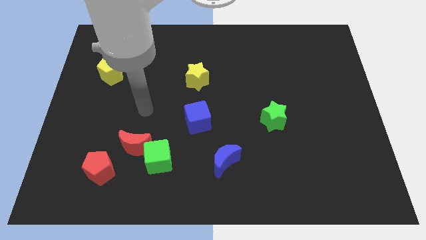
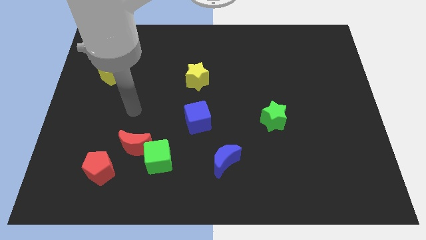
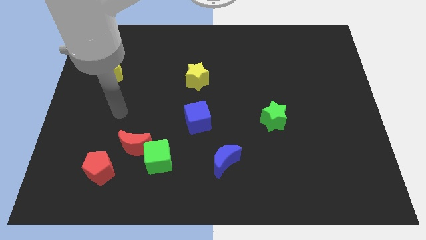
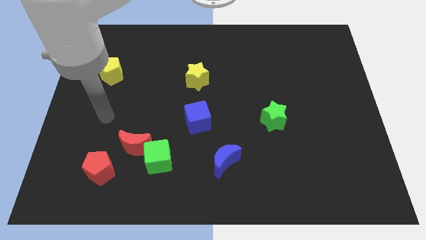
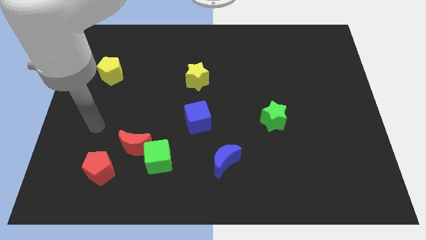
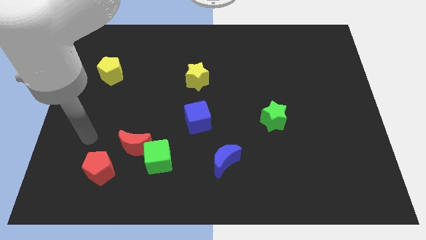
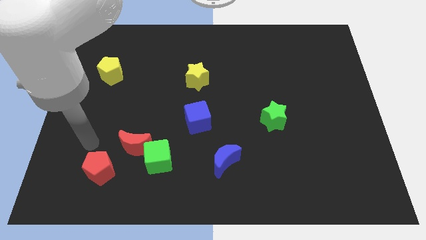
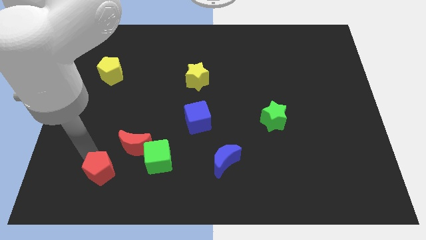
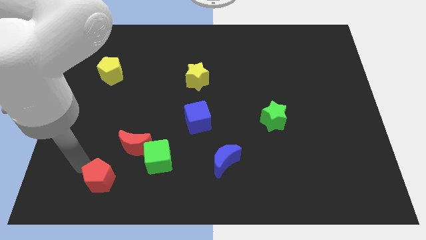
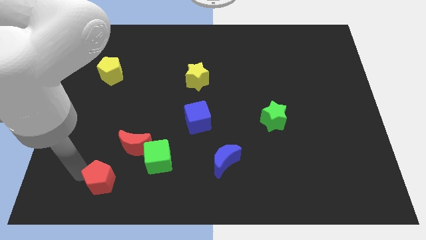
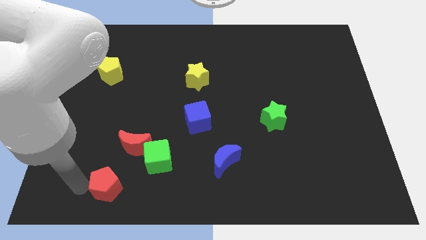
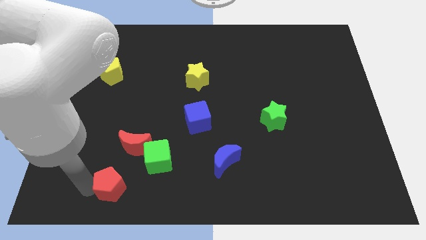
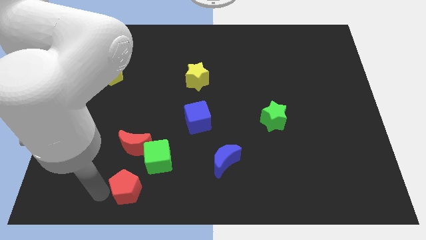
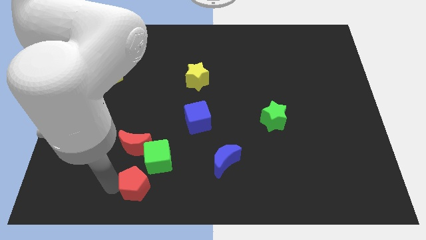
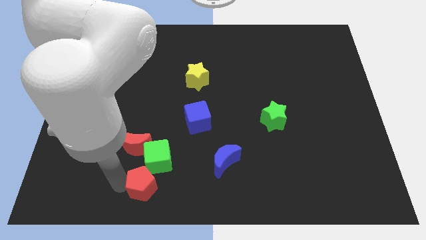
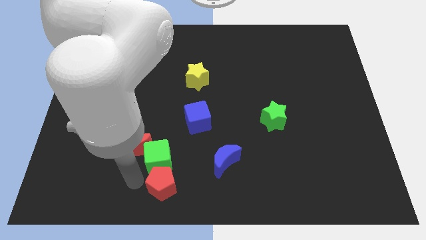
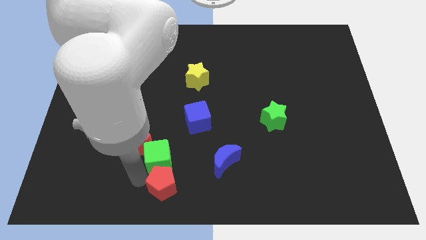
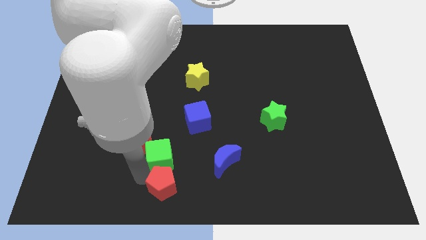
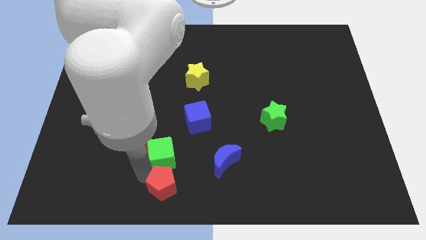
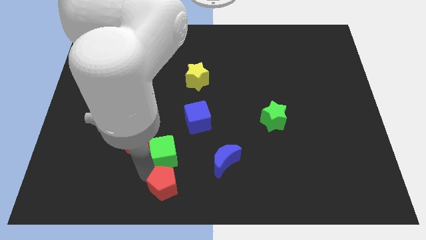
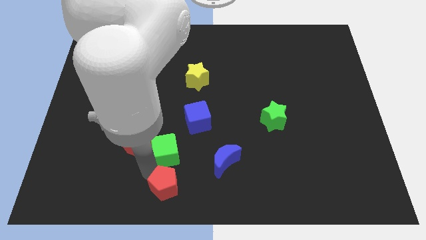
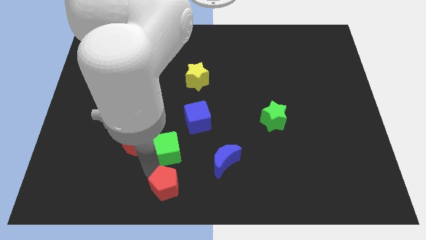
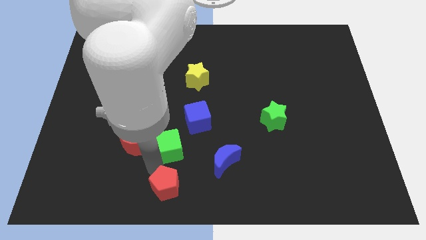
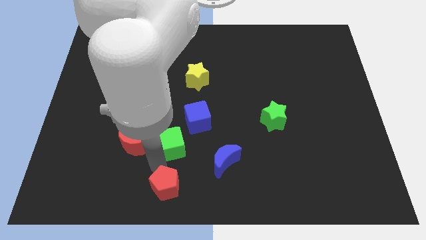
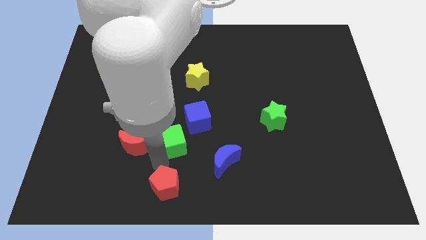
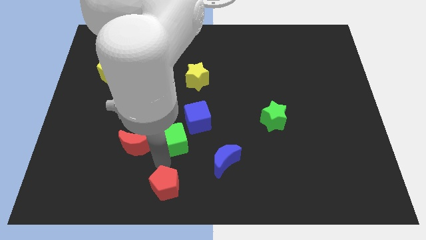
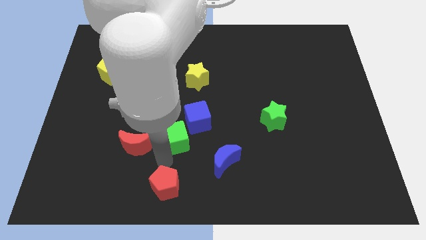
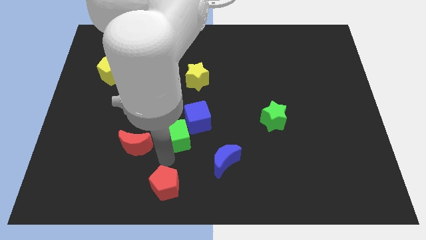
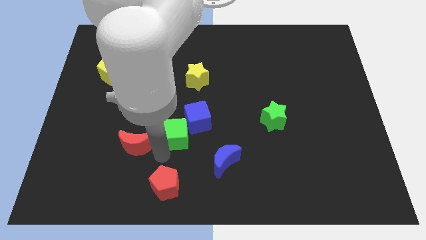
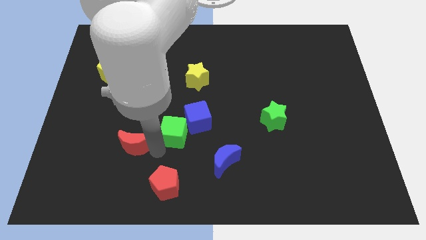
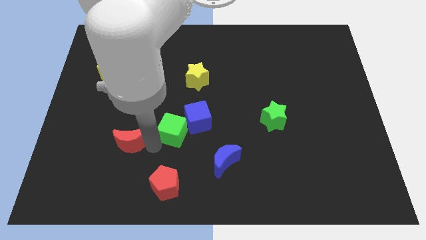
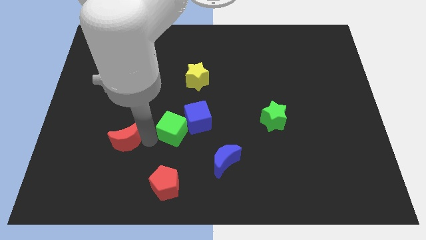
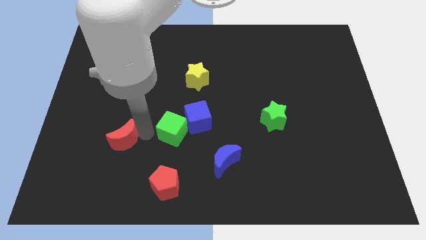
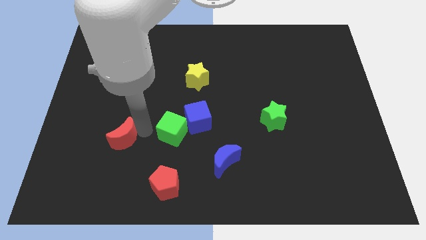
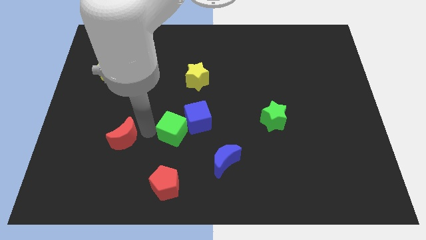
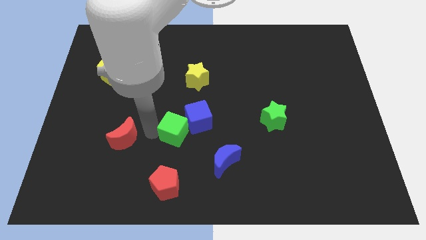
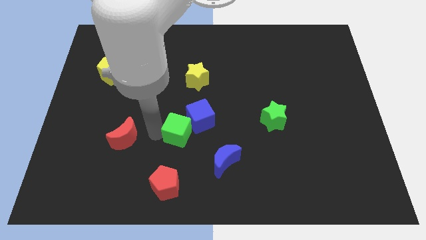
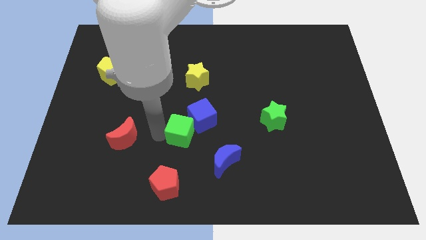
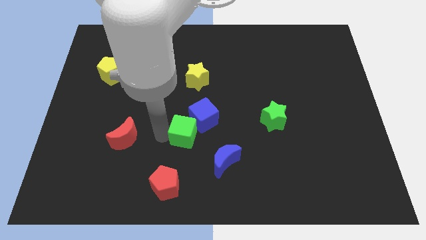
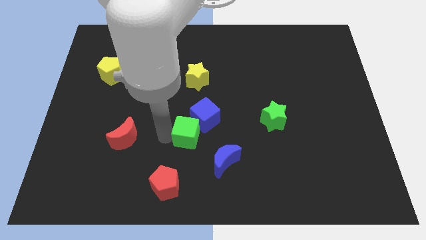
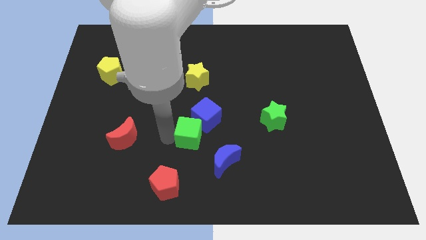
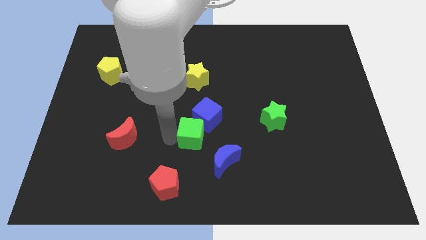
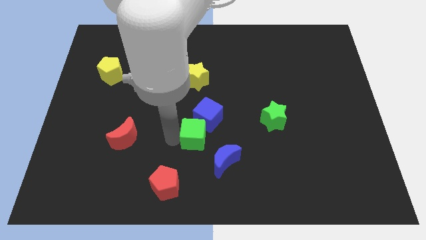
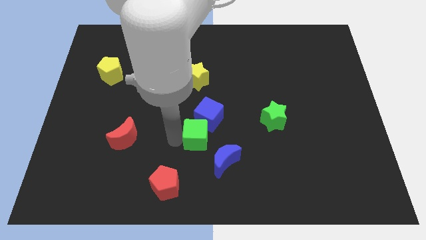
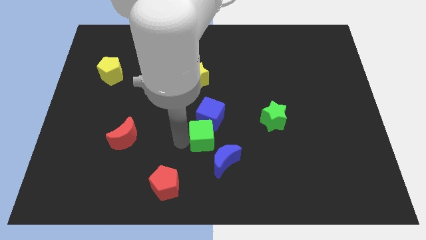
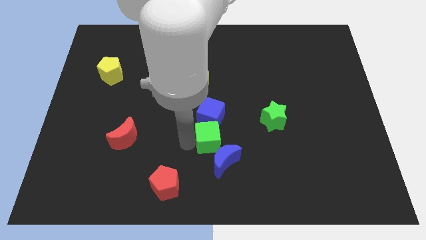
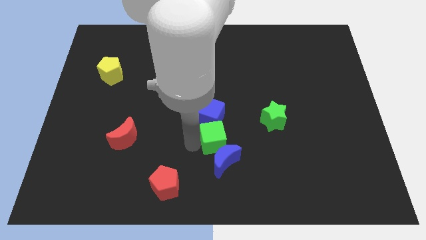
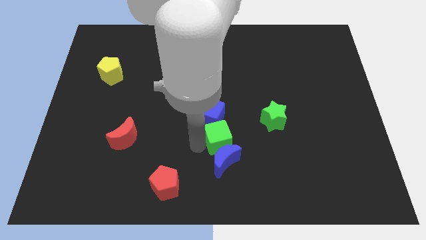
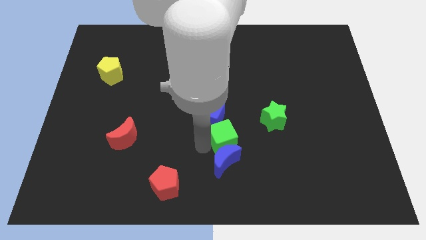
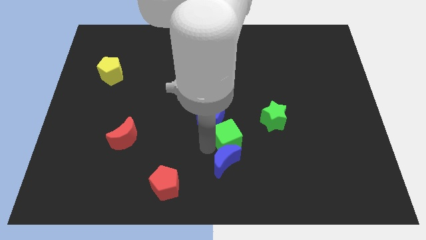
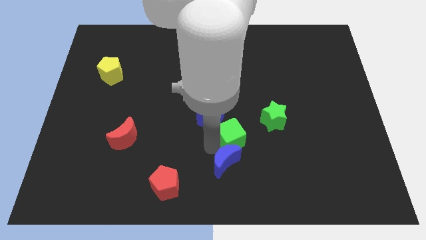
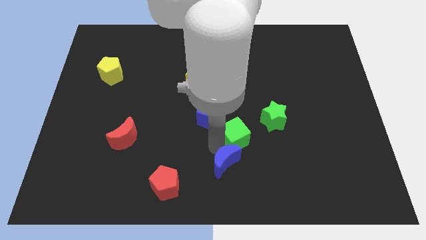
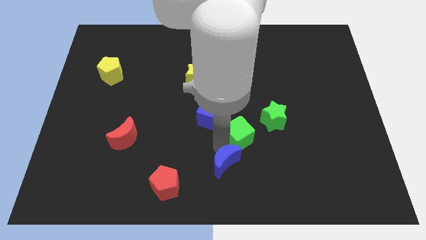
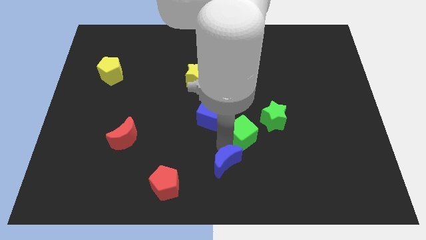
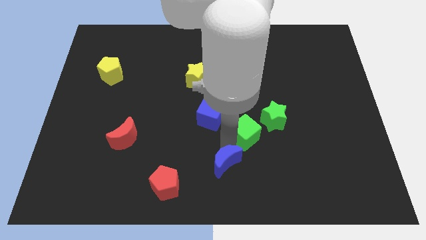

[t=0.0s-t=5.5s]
put the green cube to the right side of the blue cube
